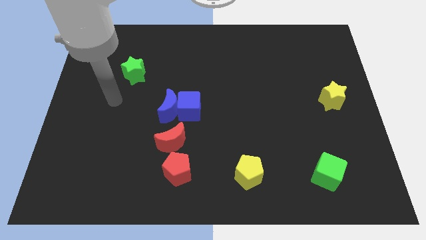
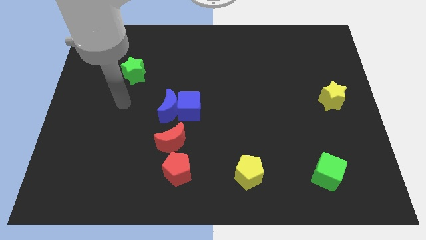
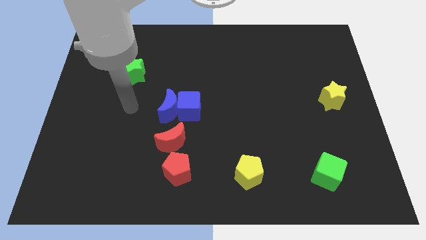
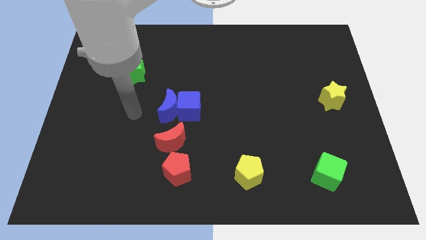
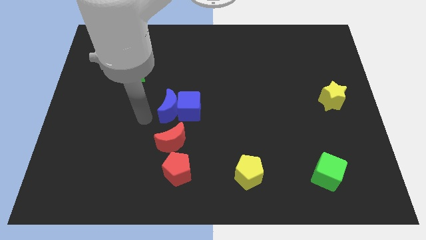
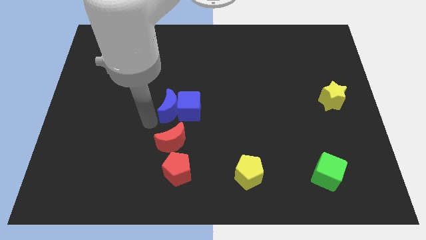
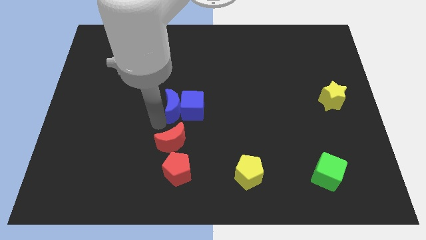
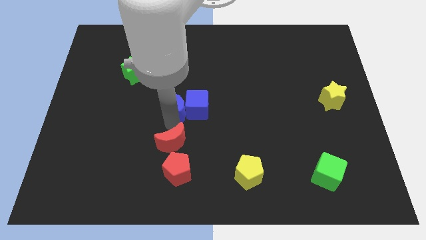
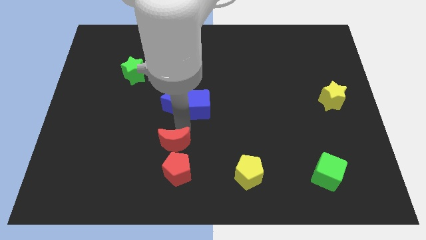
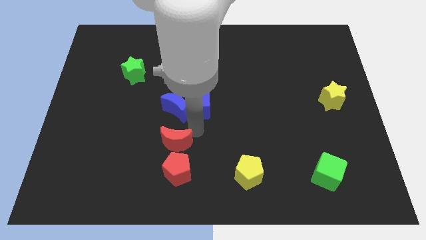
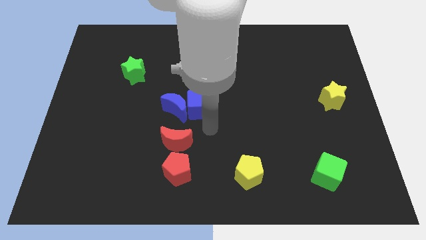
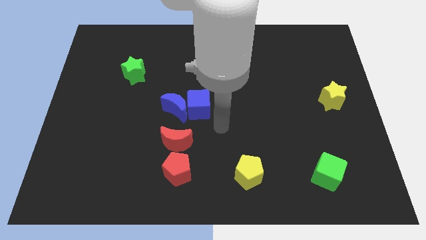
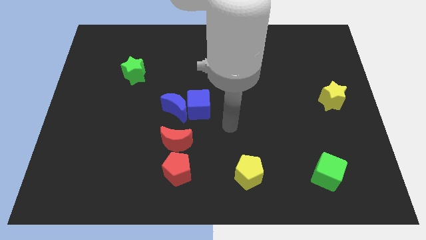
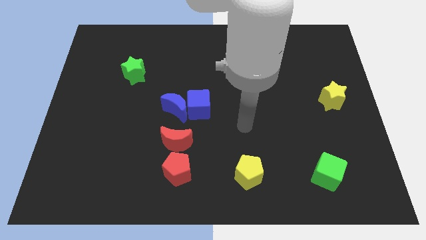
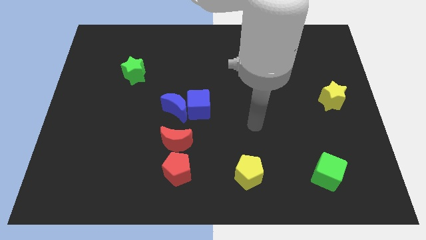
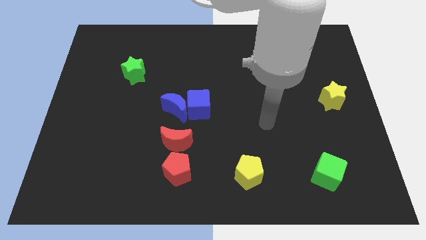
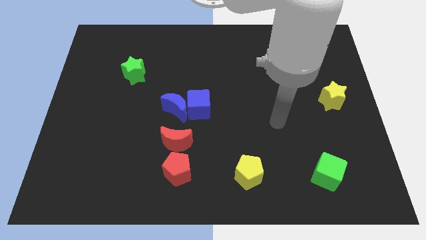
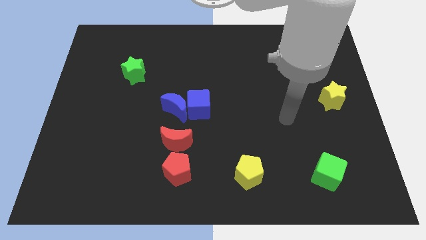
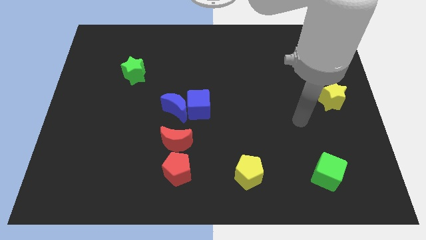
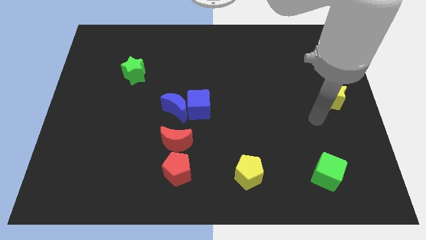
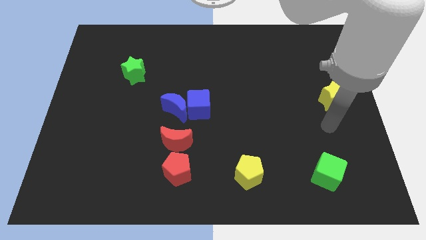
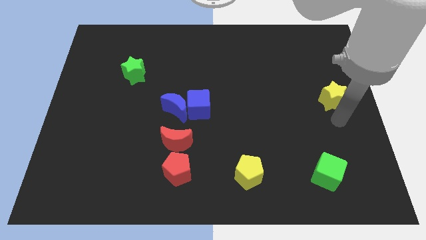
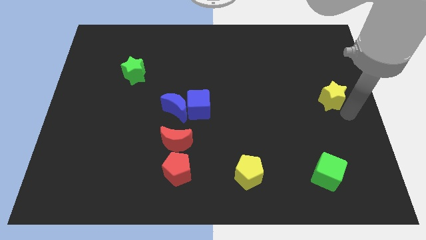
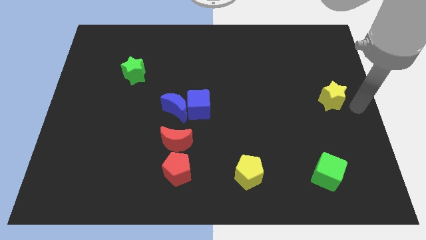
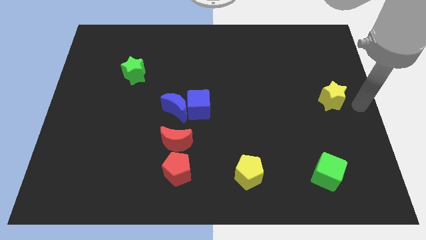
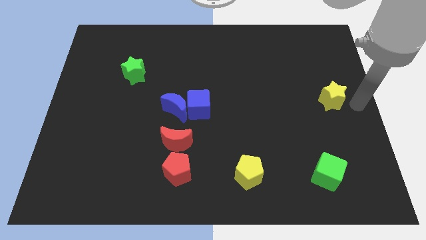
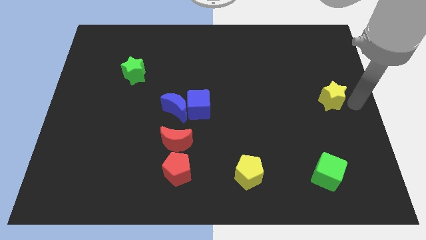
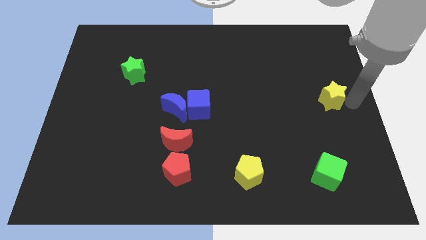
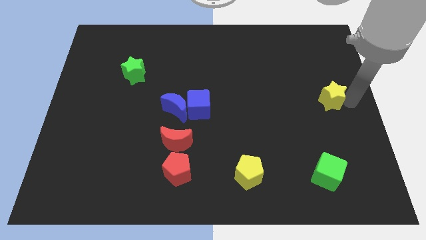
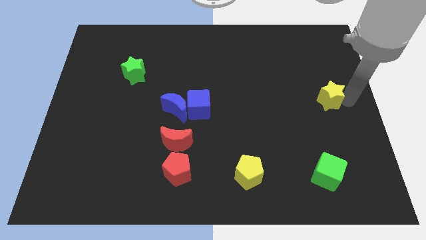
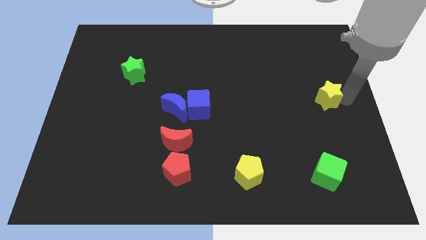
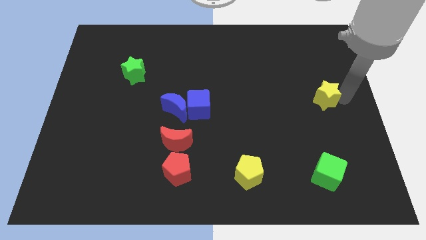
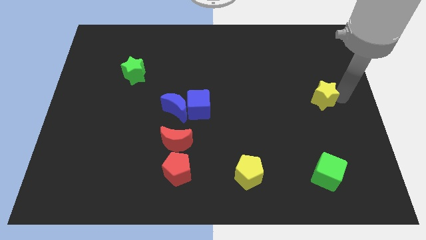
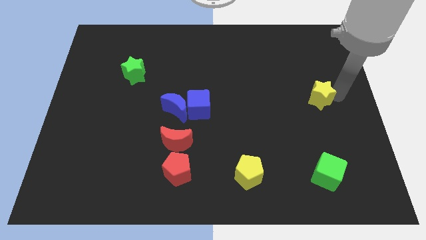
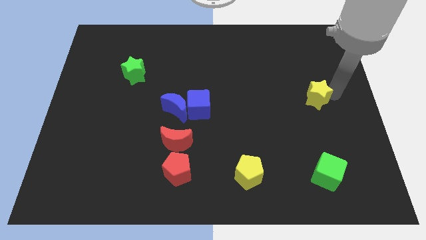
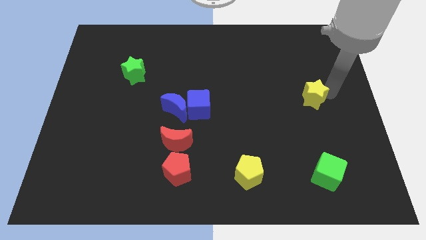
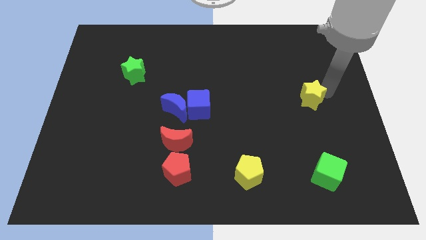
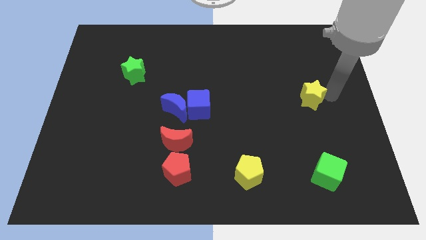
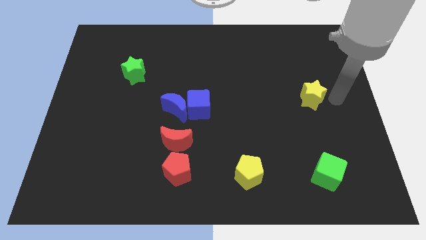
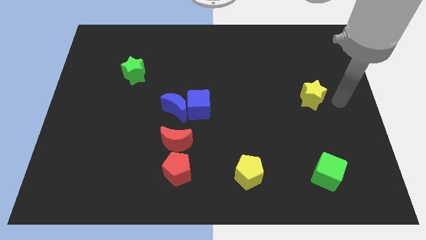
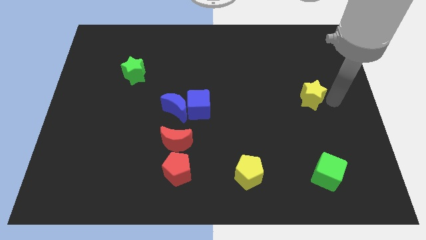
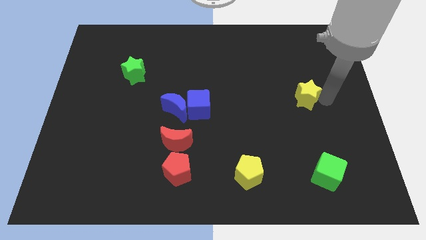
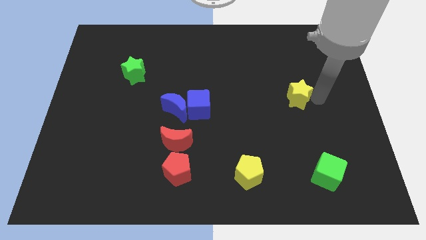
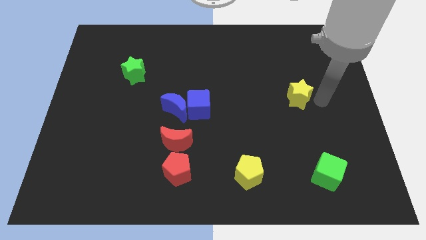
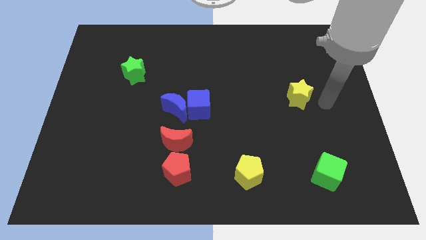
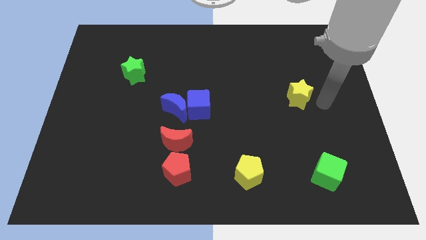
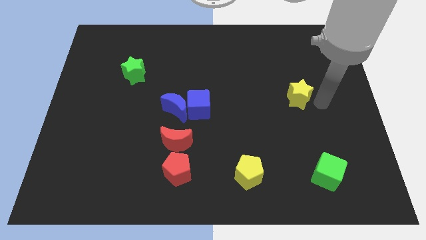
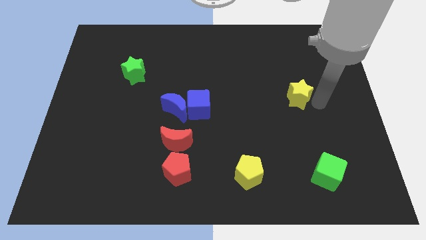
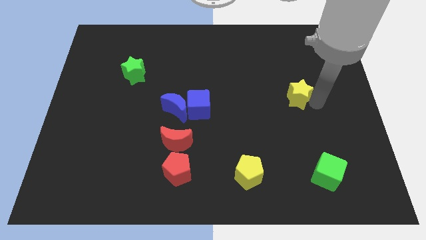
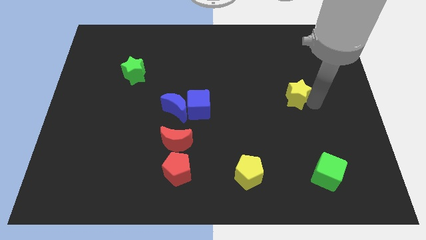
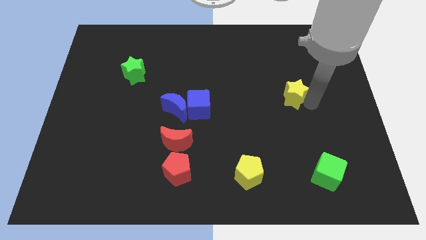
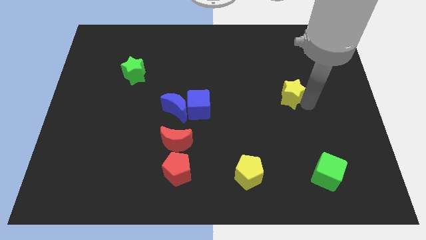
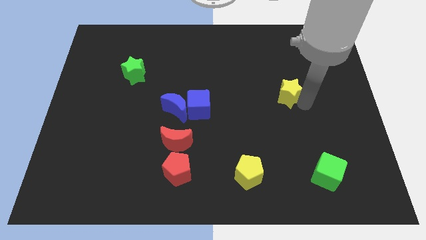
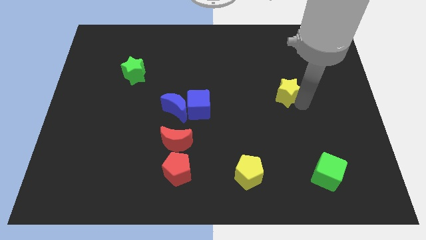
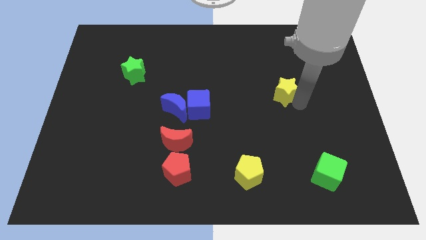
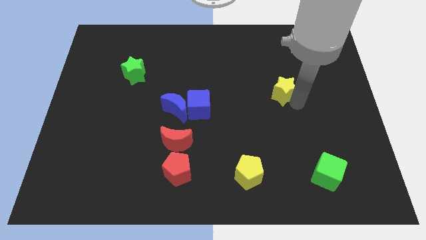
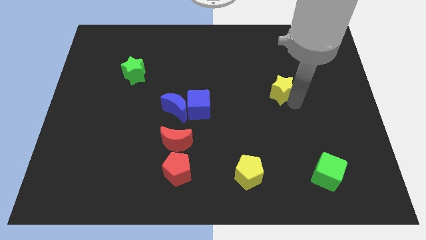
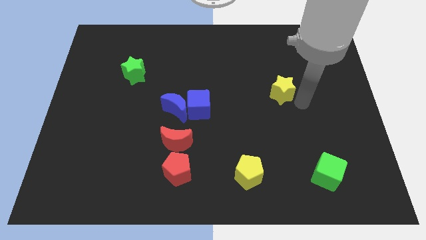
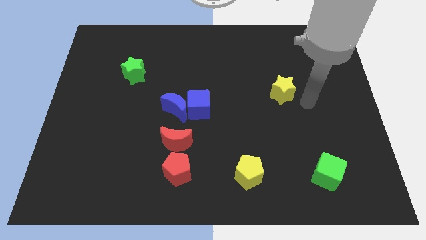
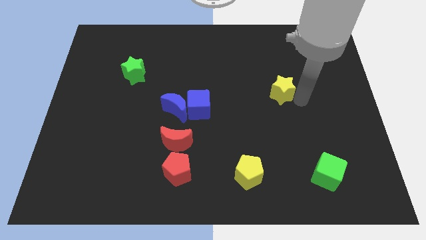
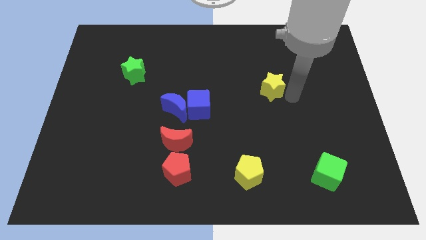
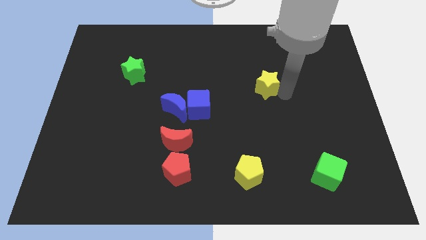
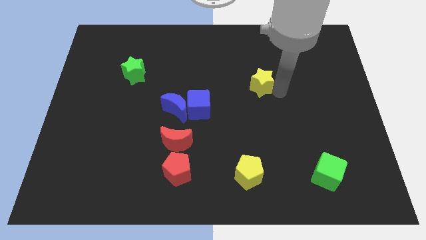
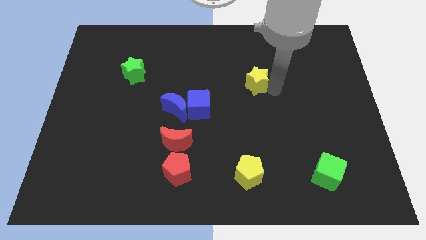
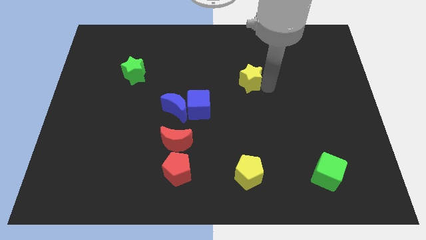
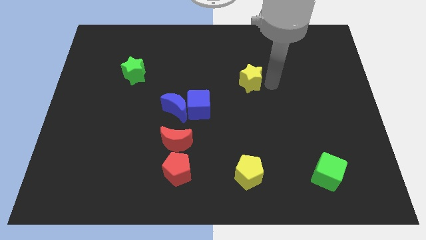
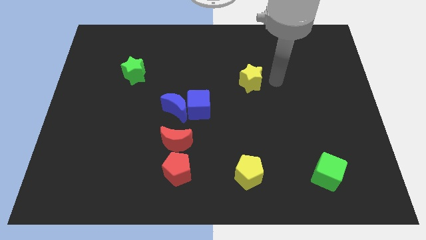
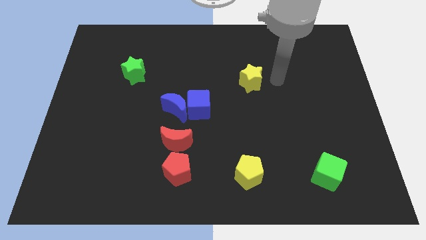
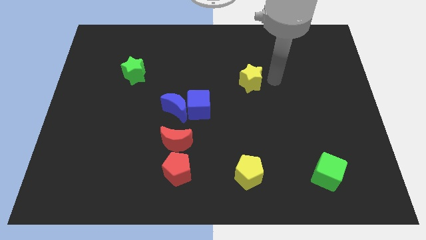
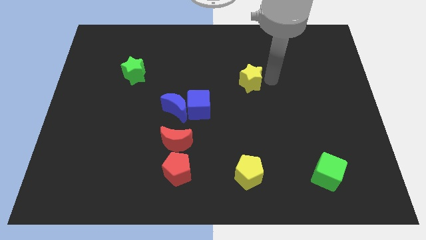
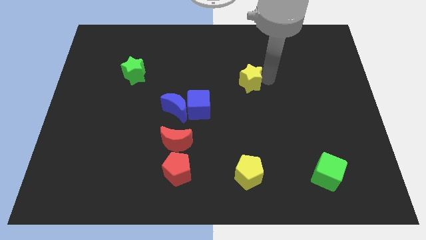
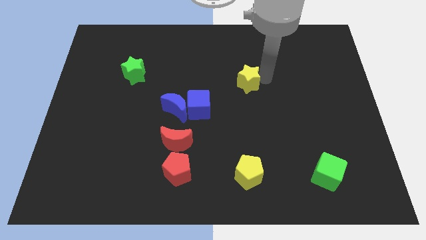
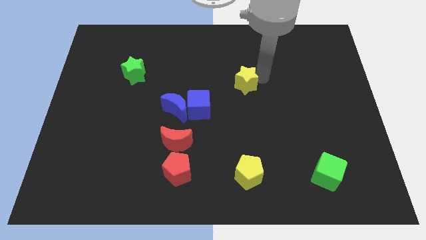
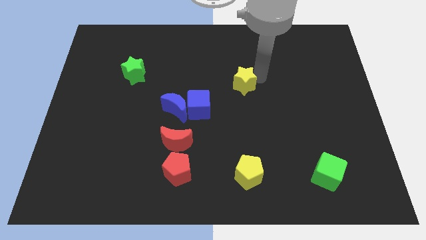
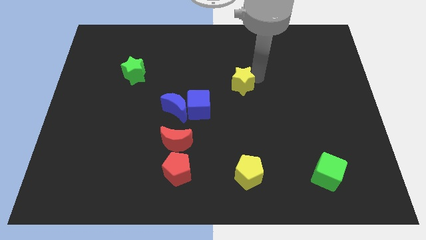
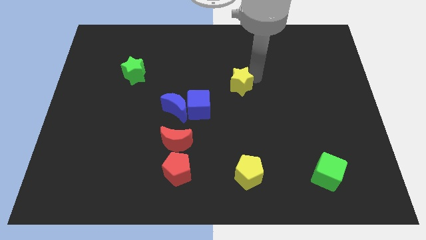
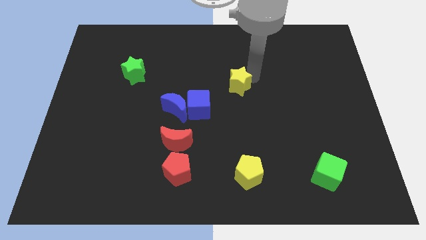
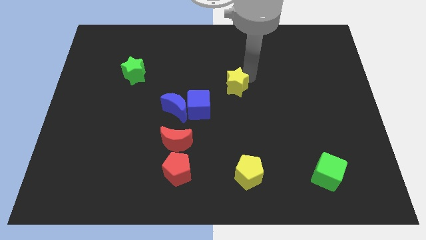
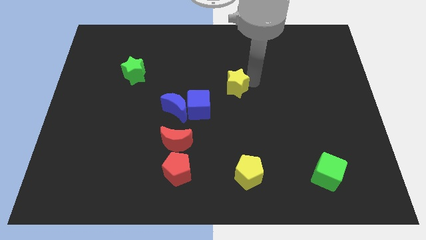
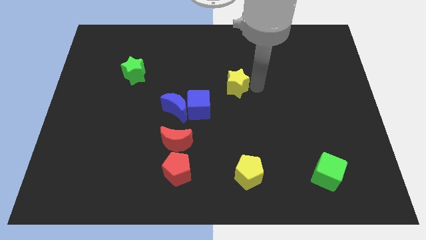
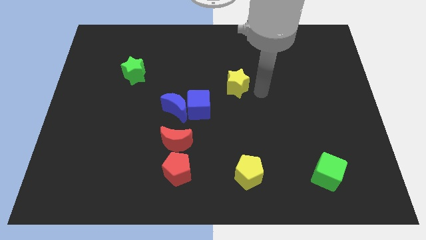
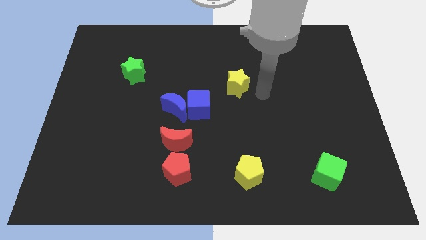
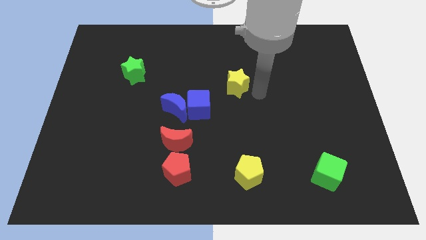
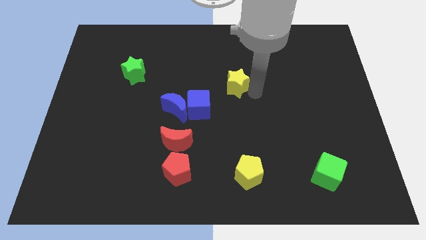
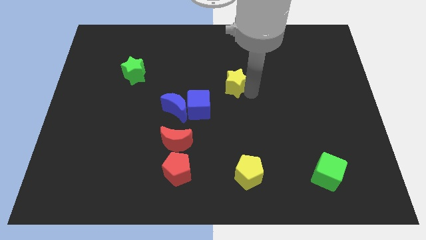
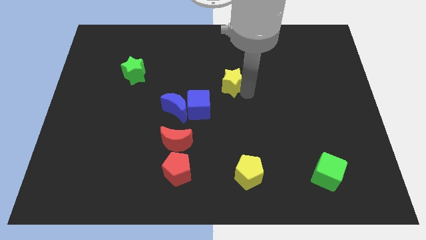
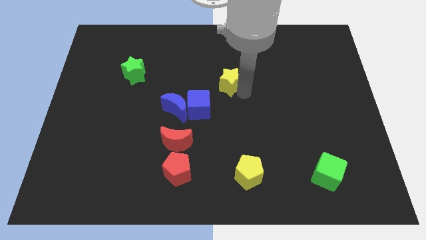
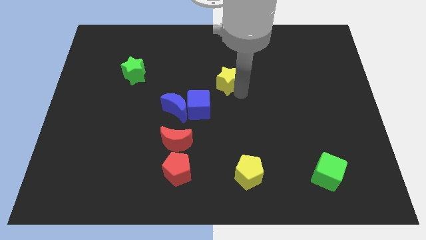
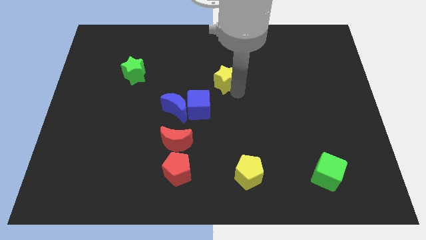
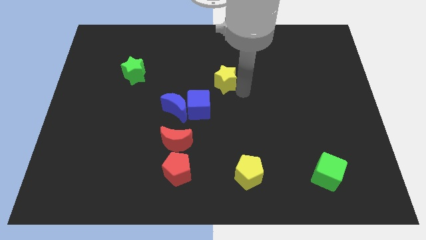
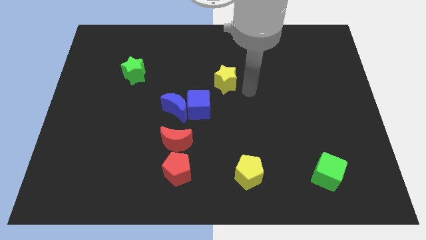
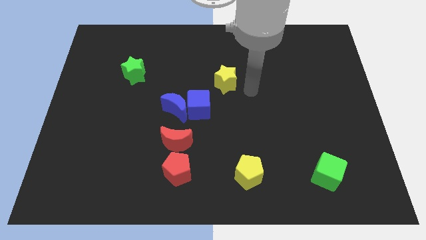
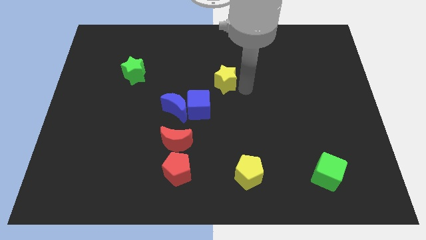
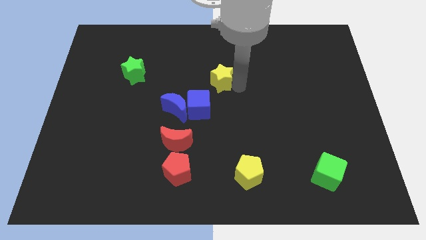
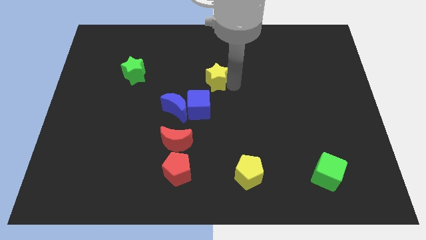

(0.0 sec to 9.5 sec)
push the yellow star above the blue cube
